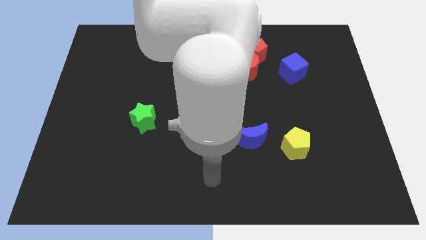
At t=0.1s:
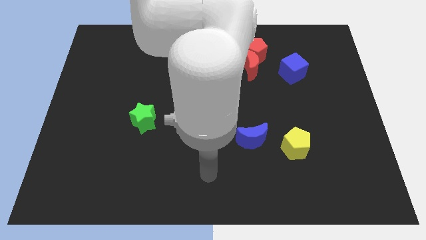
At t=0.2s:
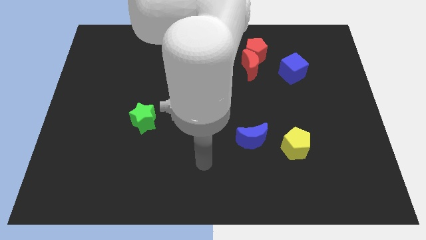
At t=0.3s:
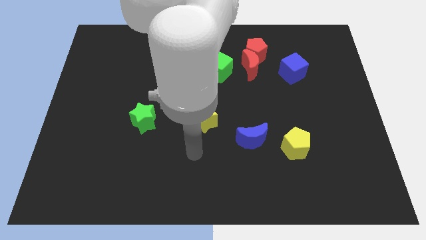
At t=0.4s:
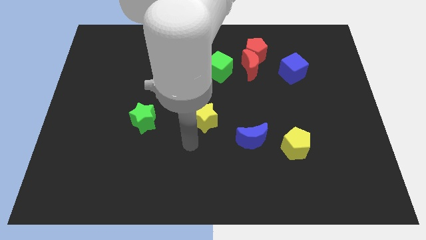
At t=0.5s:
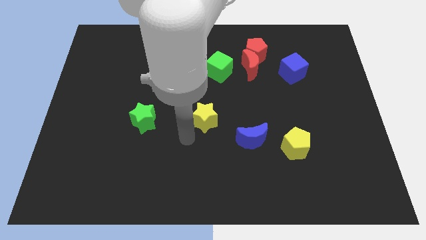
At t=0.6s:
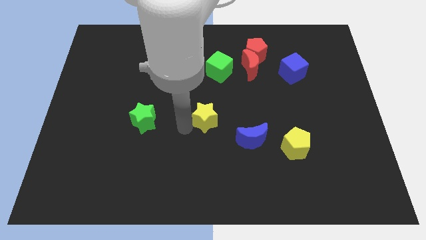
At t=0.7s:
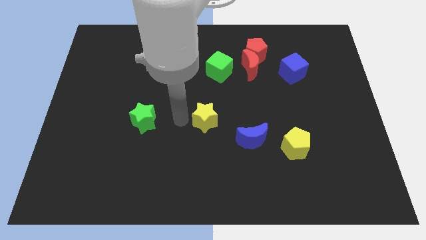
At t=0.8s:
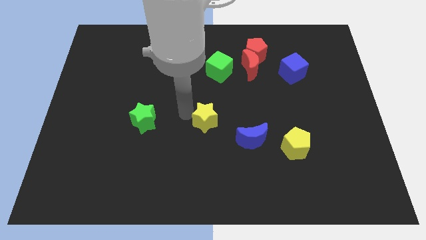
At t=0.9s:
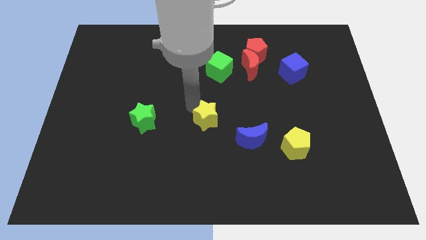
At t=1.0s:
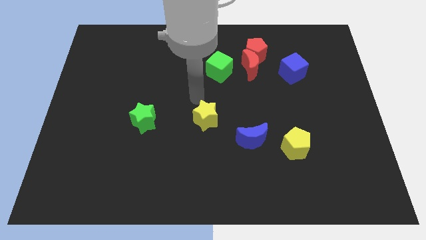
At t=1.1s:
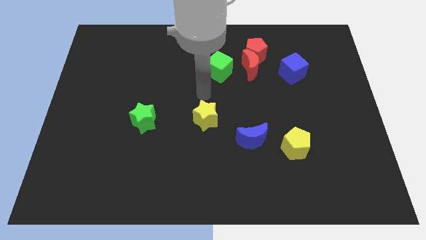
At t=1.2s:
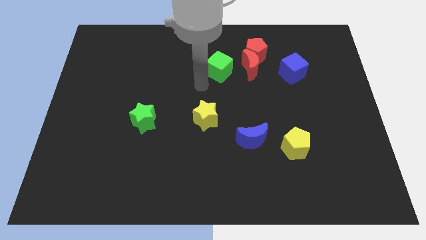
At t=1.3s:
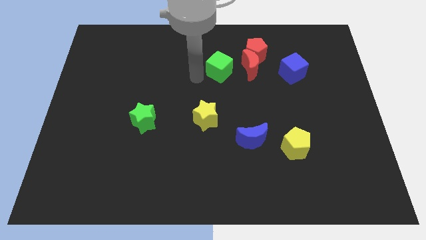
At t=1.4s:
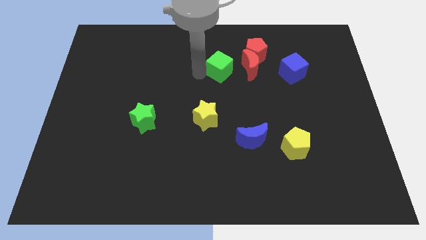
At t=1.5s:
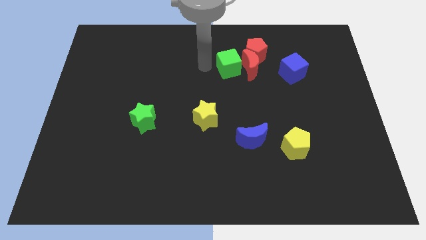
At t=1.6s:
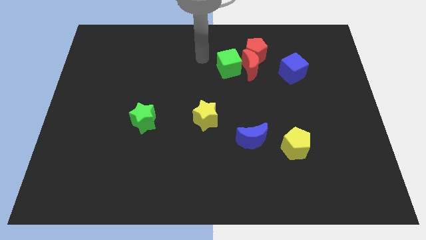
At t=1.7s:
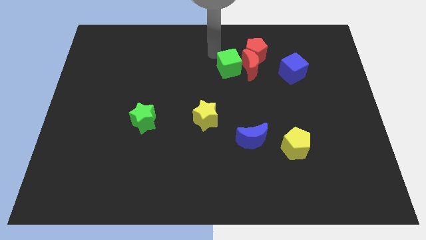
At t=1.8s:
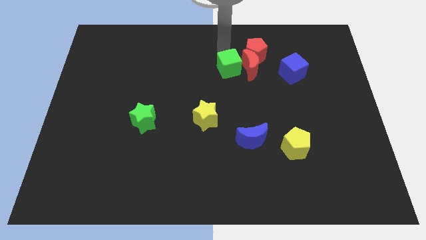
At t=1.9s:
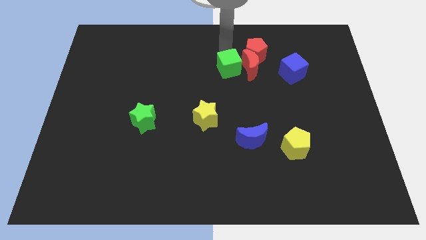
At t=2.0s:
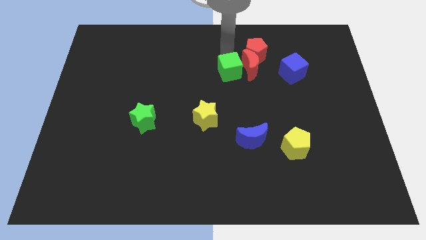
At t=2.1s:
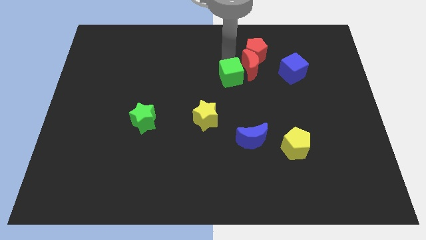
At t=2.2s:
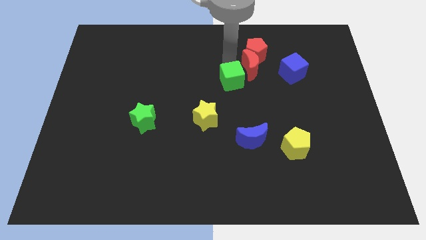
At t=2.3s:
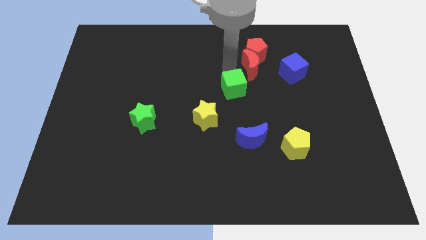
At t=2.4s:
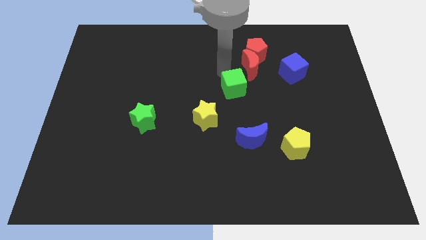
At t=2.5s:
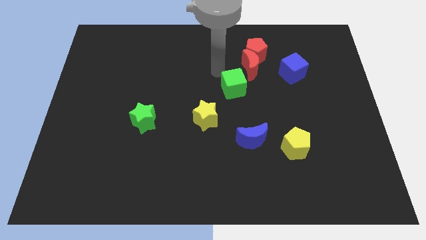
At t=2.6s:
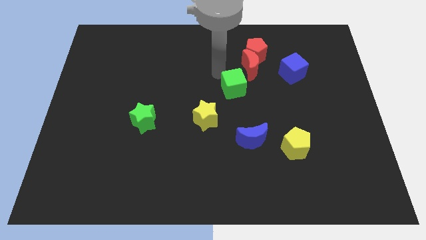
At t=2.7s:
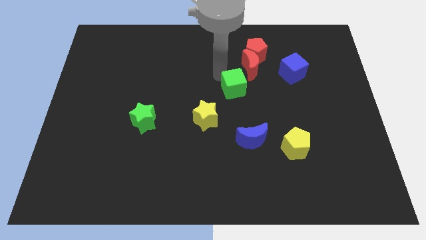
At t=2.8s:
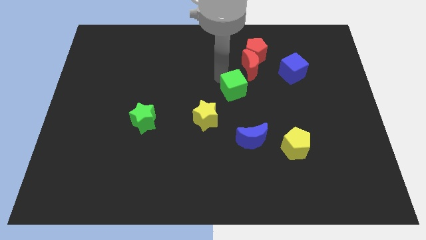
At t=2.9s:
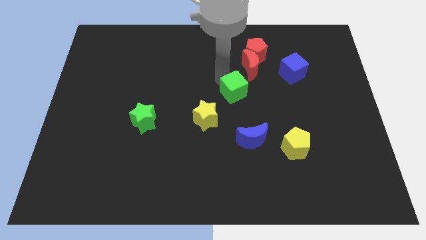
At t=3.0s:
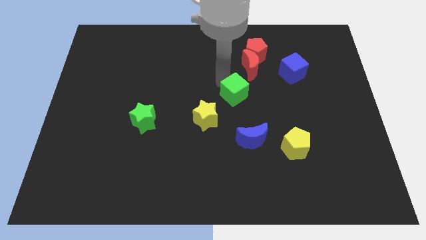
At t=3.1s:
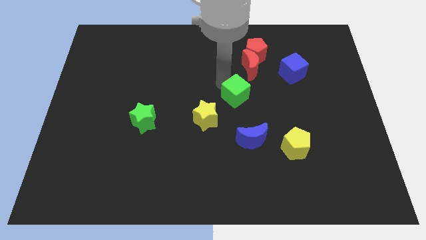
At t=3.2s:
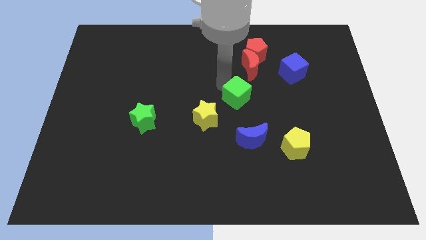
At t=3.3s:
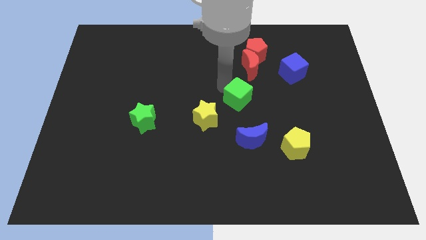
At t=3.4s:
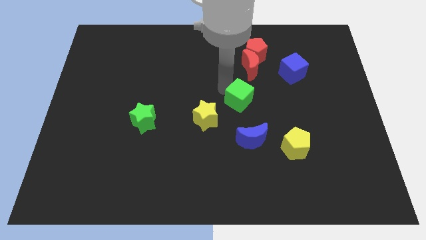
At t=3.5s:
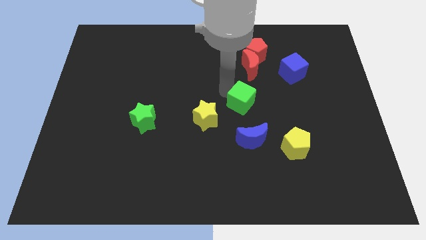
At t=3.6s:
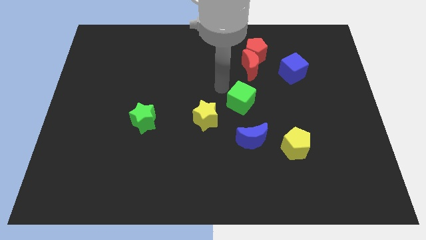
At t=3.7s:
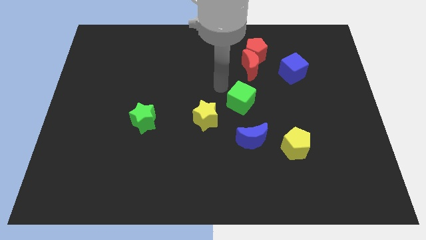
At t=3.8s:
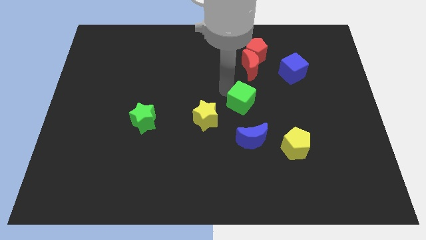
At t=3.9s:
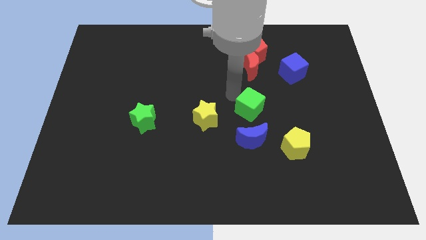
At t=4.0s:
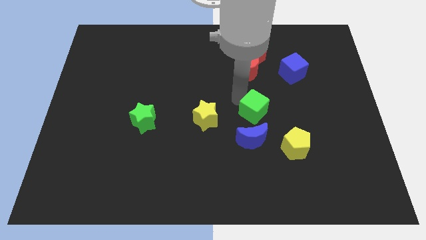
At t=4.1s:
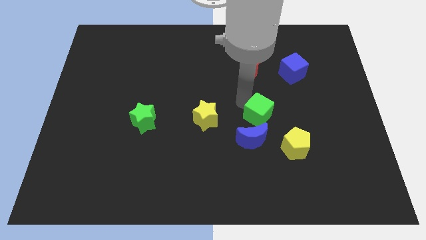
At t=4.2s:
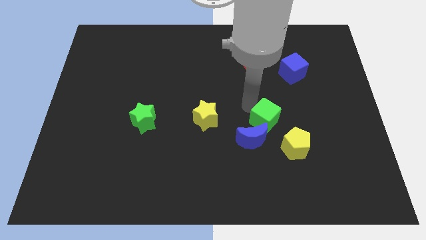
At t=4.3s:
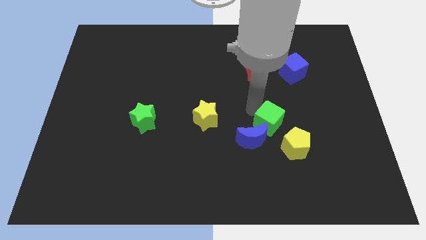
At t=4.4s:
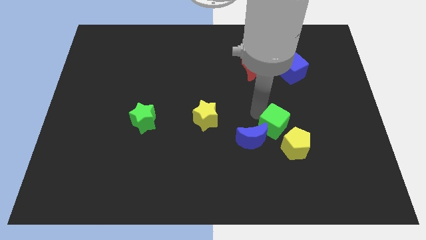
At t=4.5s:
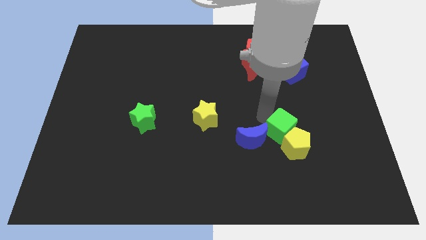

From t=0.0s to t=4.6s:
move the green cube next to the yellow pentagon

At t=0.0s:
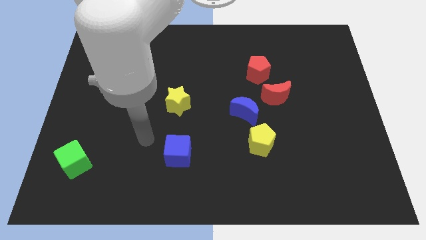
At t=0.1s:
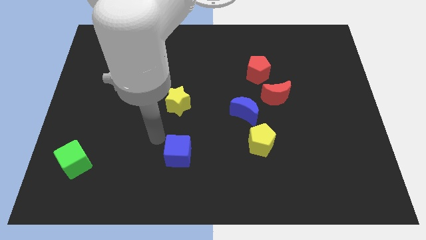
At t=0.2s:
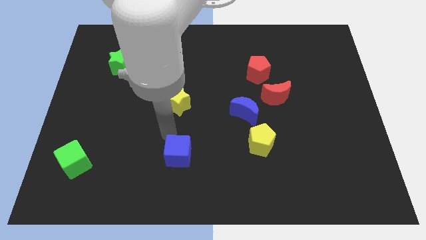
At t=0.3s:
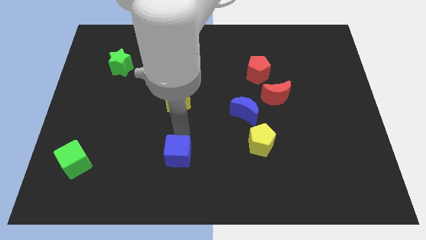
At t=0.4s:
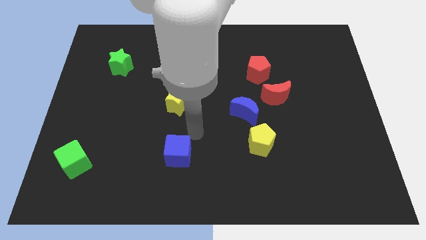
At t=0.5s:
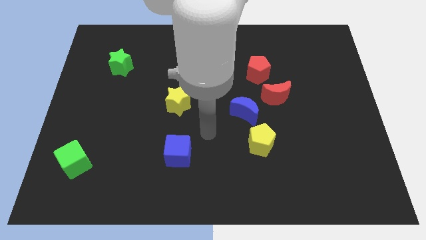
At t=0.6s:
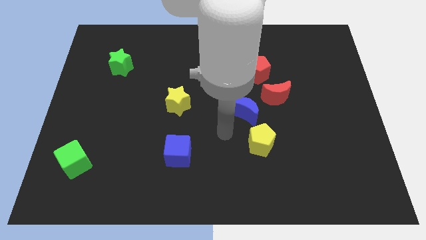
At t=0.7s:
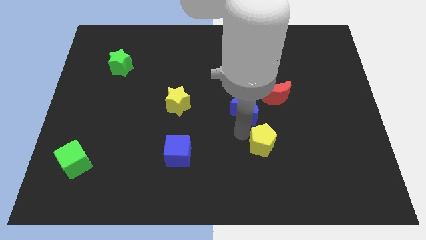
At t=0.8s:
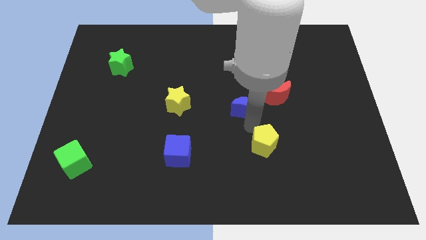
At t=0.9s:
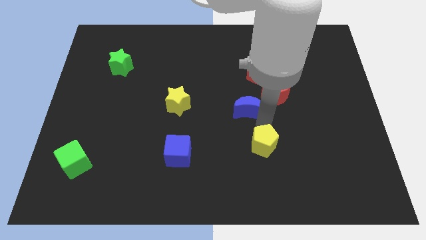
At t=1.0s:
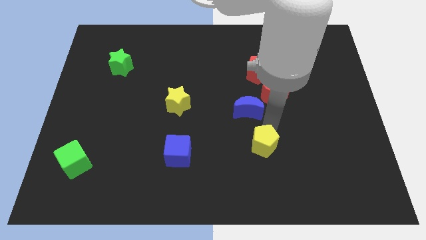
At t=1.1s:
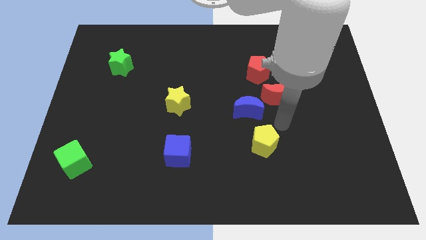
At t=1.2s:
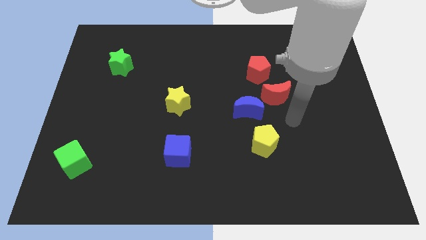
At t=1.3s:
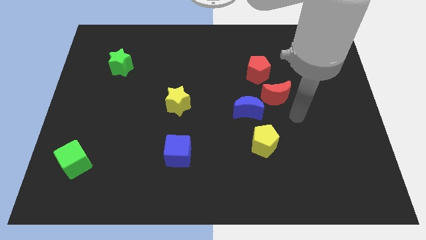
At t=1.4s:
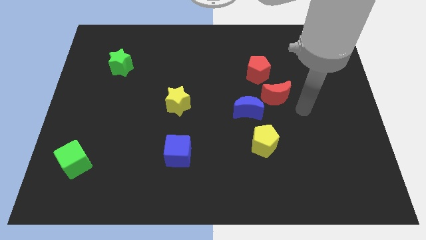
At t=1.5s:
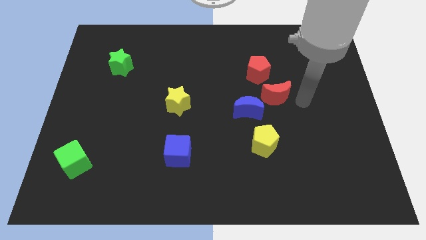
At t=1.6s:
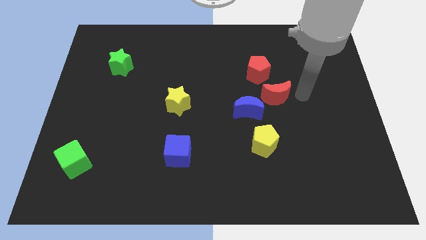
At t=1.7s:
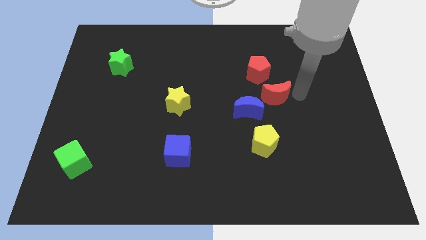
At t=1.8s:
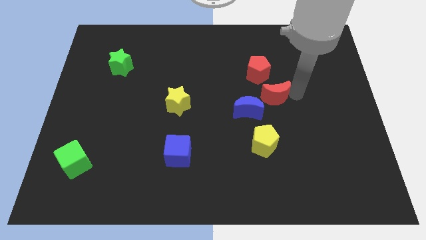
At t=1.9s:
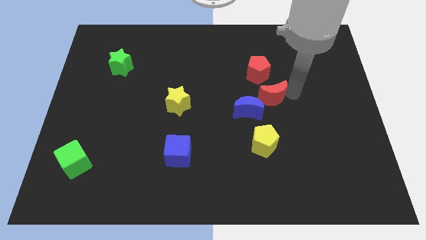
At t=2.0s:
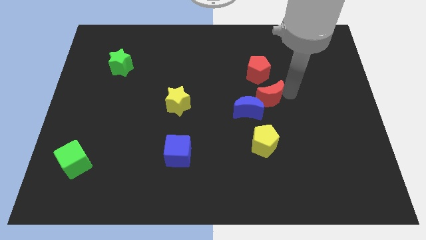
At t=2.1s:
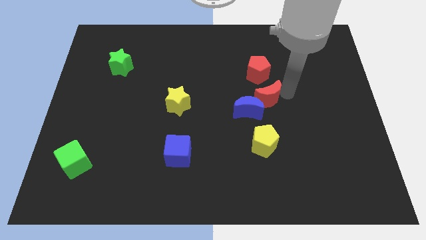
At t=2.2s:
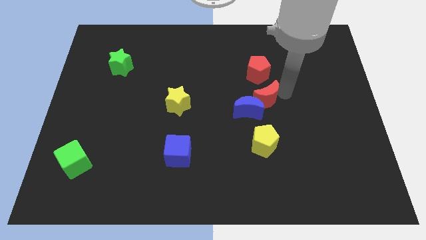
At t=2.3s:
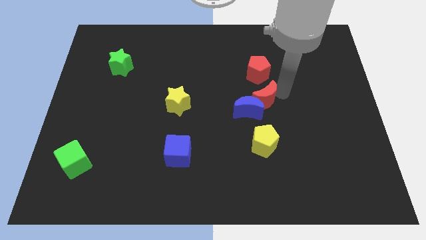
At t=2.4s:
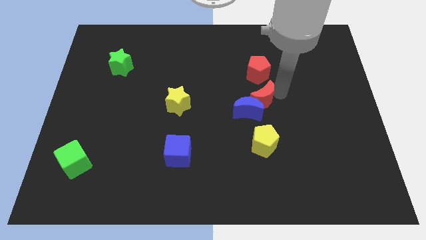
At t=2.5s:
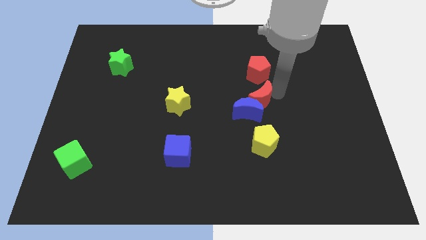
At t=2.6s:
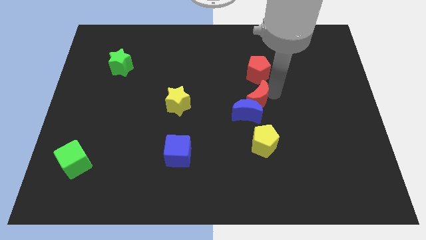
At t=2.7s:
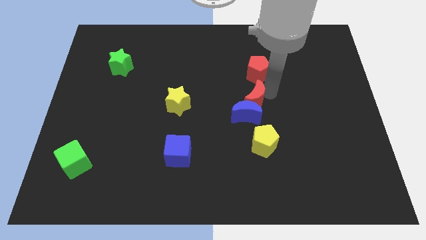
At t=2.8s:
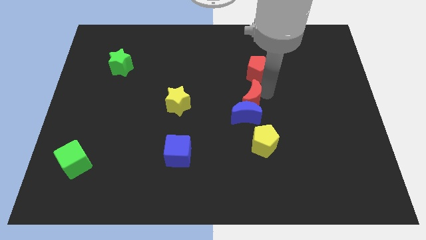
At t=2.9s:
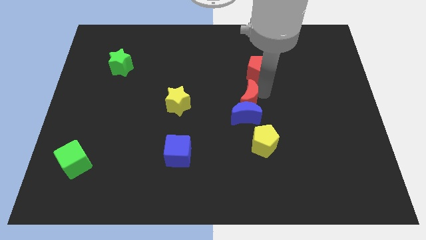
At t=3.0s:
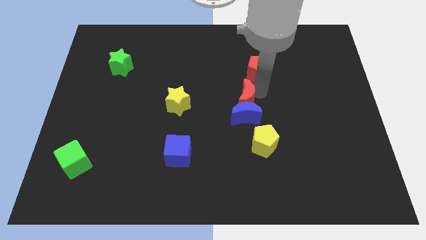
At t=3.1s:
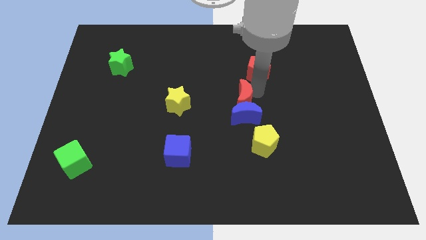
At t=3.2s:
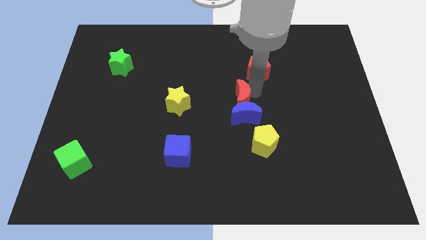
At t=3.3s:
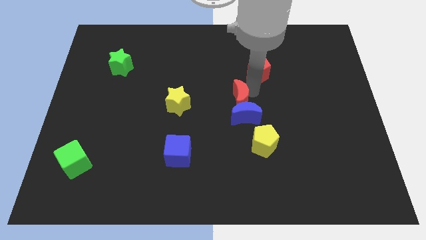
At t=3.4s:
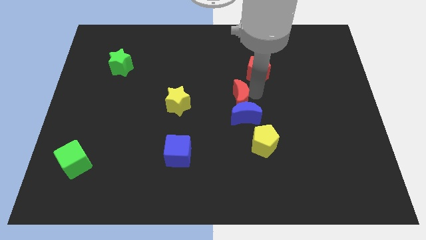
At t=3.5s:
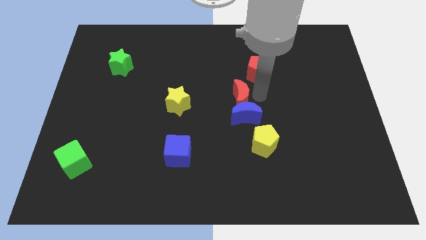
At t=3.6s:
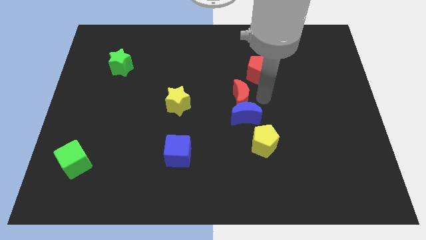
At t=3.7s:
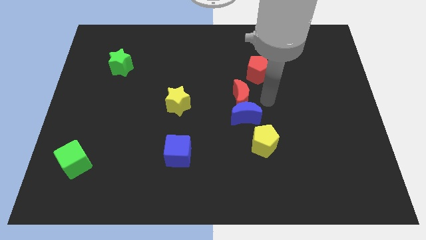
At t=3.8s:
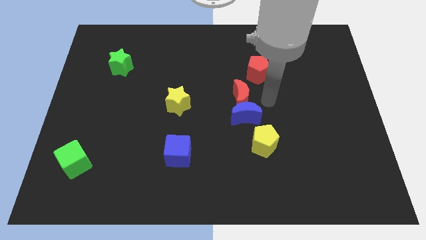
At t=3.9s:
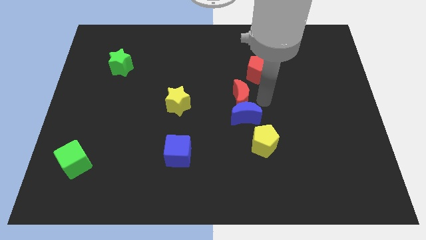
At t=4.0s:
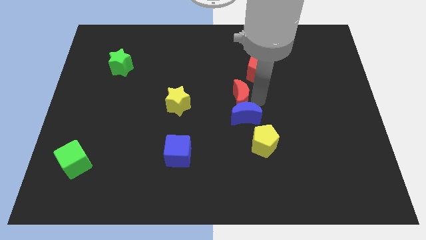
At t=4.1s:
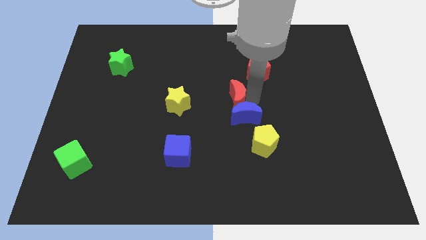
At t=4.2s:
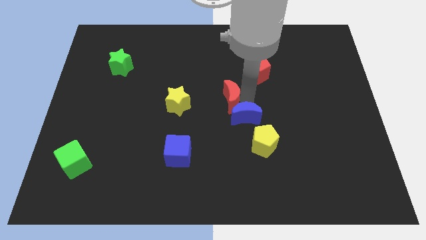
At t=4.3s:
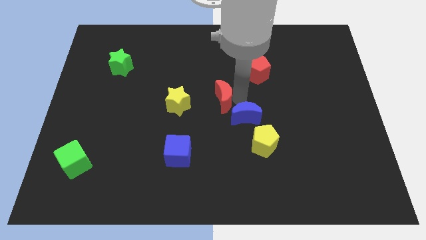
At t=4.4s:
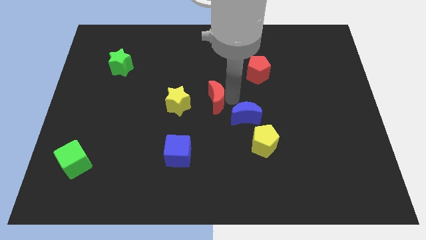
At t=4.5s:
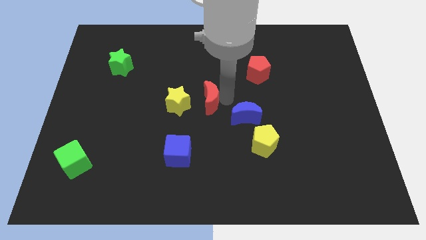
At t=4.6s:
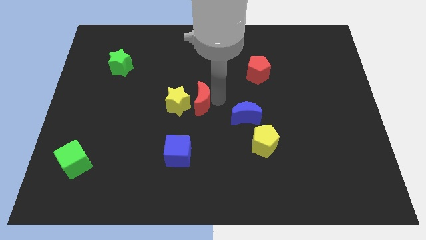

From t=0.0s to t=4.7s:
push the red moon close to the yellow star
